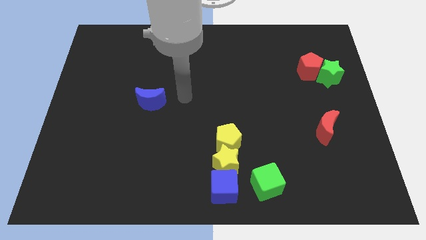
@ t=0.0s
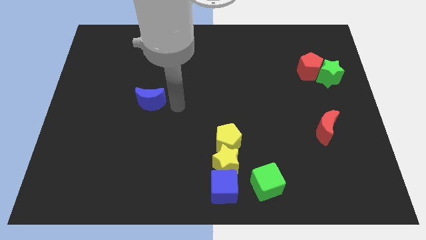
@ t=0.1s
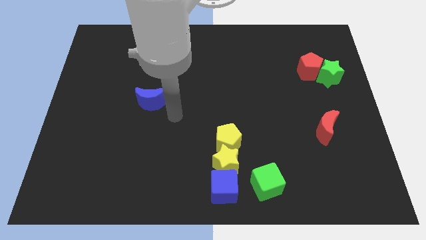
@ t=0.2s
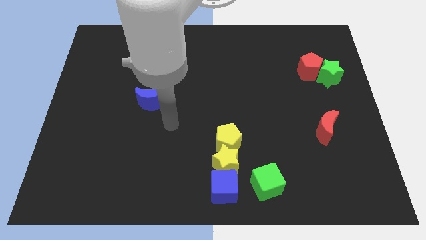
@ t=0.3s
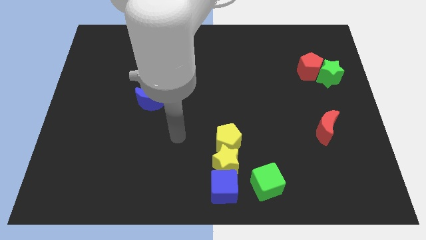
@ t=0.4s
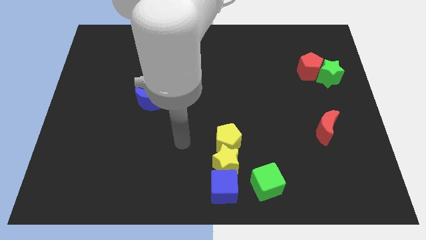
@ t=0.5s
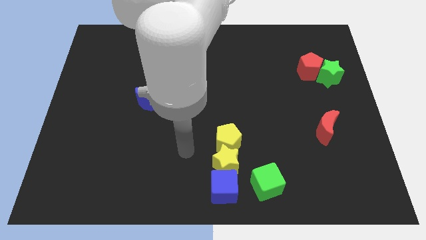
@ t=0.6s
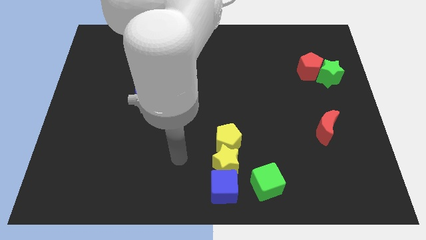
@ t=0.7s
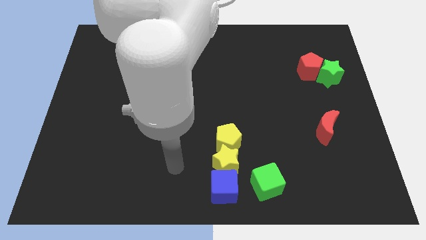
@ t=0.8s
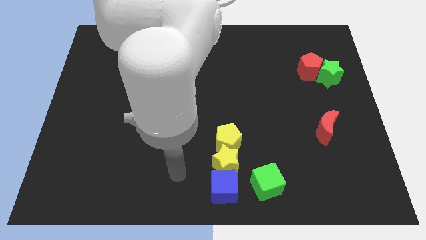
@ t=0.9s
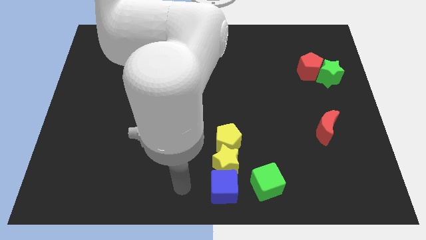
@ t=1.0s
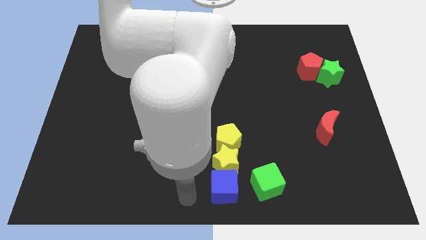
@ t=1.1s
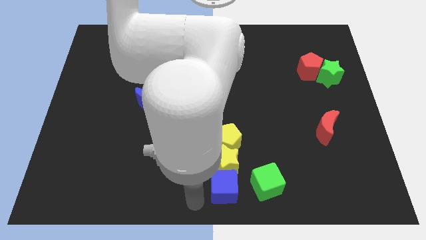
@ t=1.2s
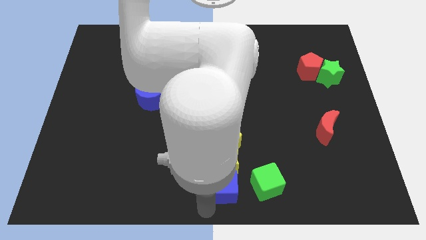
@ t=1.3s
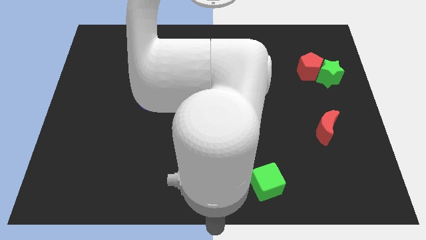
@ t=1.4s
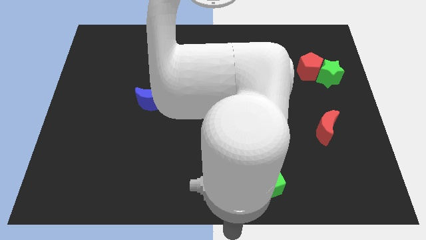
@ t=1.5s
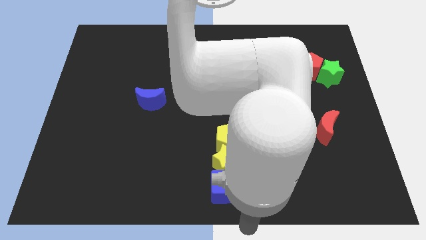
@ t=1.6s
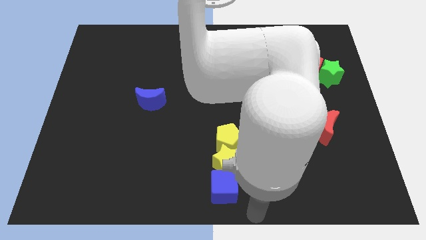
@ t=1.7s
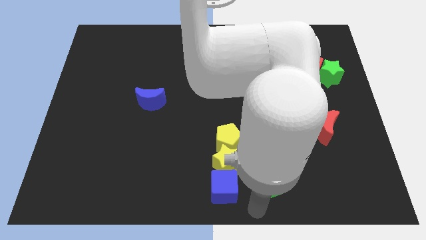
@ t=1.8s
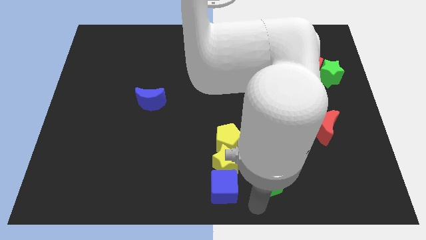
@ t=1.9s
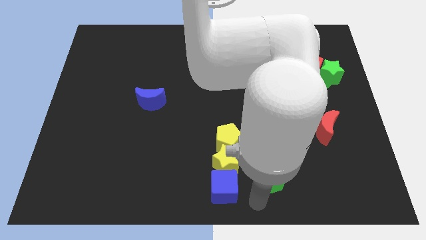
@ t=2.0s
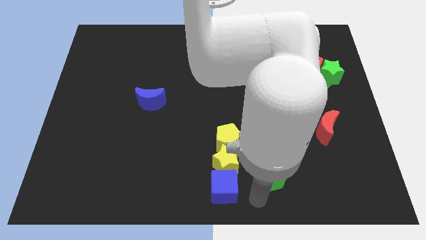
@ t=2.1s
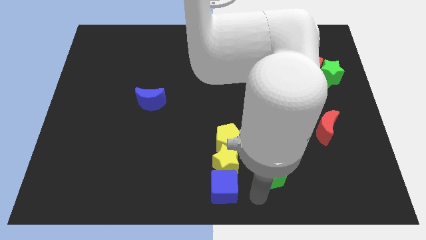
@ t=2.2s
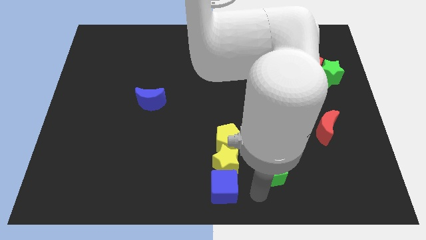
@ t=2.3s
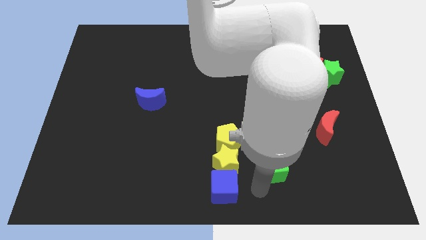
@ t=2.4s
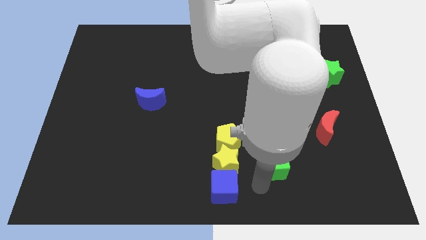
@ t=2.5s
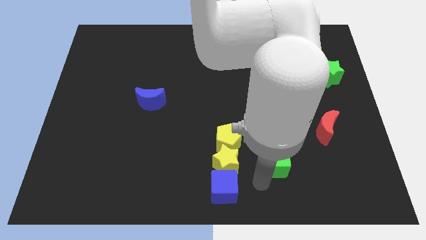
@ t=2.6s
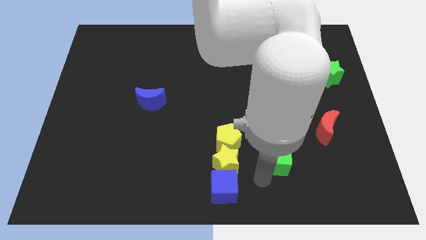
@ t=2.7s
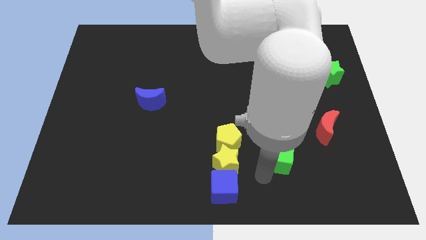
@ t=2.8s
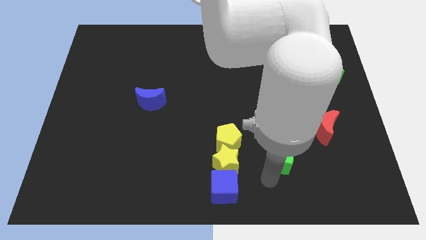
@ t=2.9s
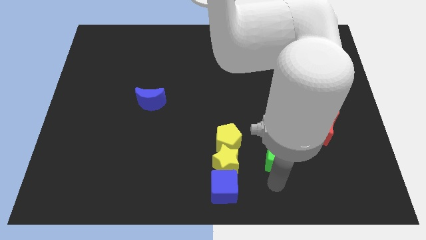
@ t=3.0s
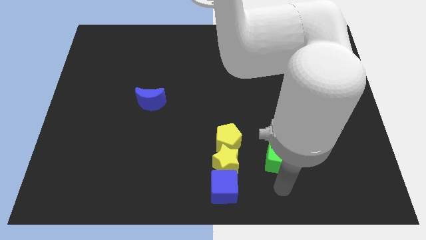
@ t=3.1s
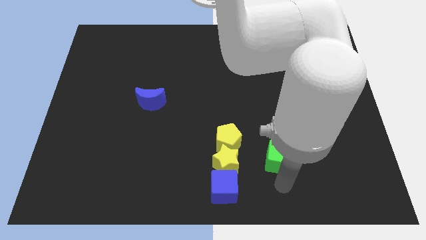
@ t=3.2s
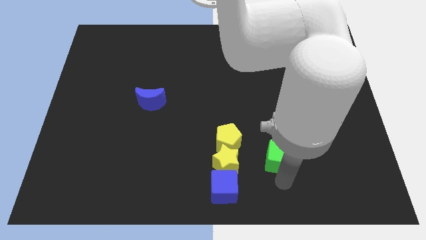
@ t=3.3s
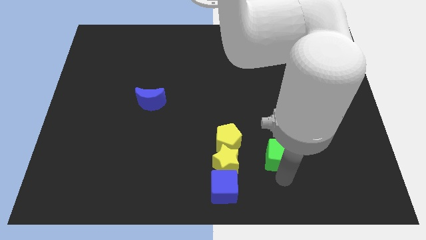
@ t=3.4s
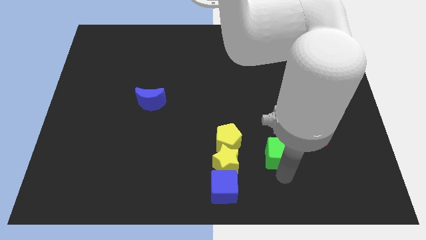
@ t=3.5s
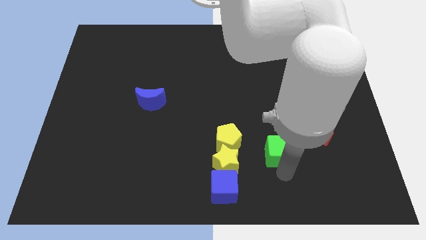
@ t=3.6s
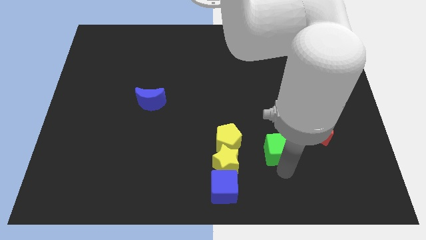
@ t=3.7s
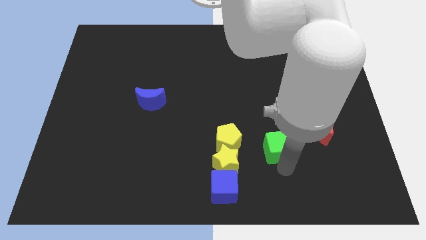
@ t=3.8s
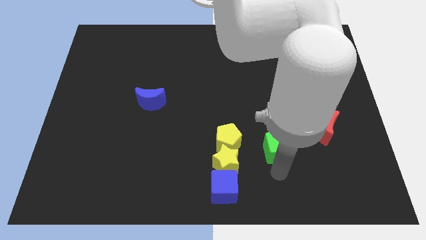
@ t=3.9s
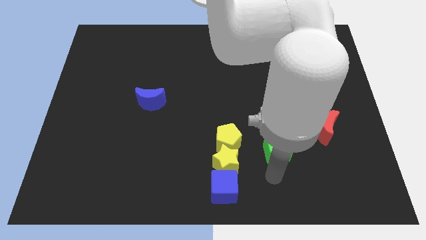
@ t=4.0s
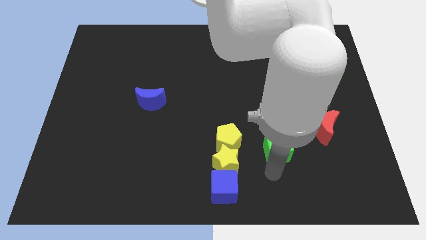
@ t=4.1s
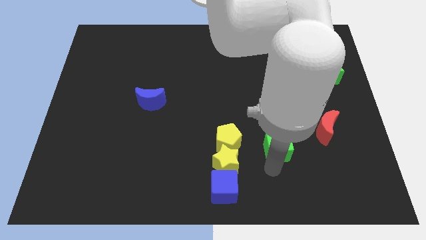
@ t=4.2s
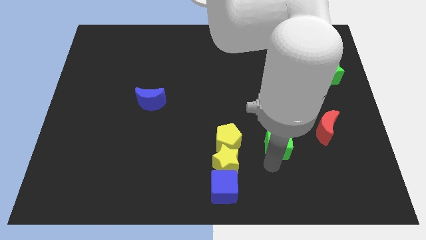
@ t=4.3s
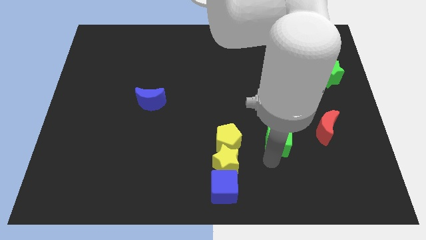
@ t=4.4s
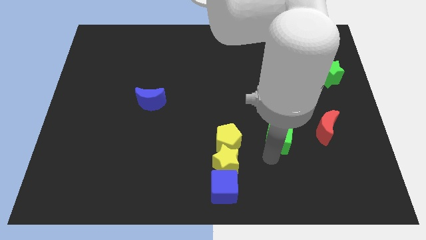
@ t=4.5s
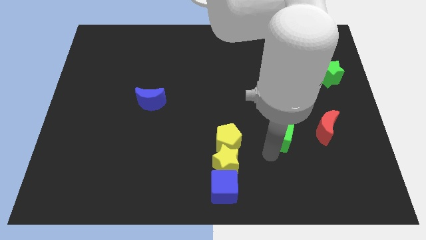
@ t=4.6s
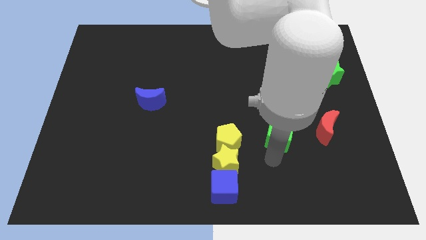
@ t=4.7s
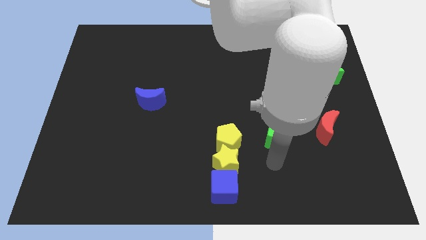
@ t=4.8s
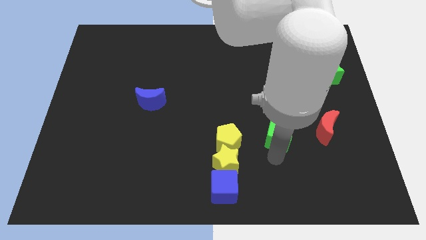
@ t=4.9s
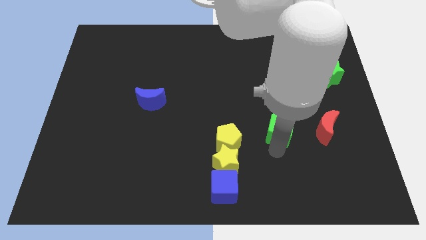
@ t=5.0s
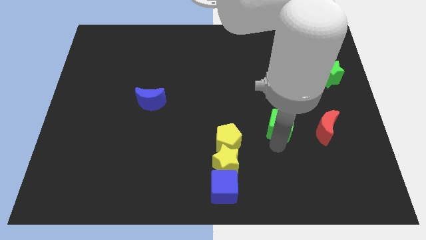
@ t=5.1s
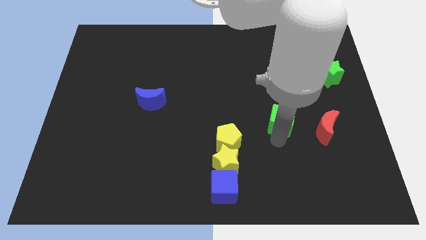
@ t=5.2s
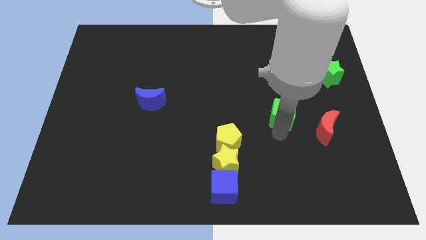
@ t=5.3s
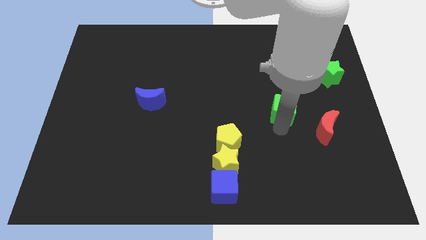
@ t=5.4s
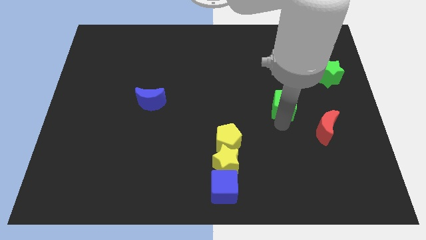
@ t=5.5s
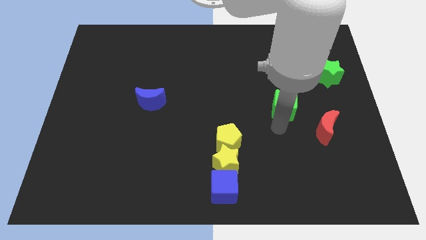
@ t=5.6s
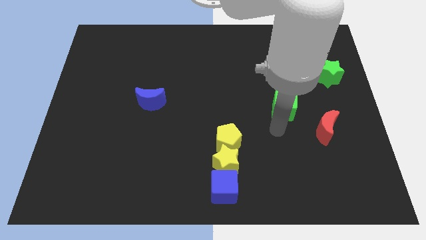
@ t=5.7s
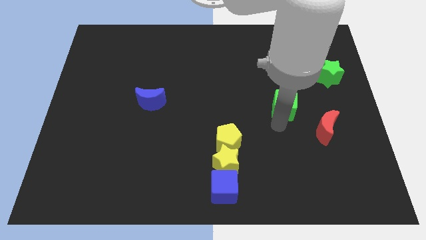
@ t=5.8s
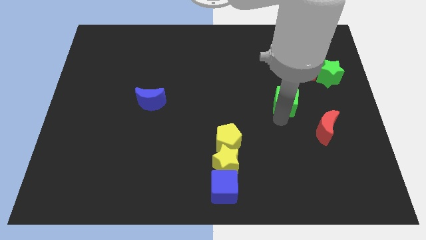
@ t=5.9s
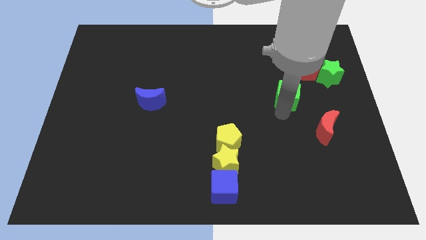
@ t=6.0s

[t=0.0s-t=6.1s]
put the green cube diagonally down and to the left of the red pentagon

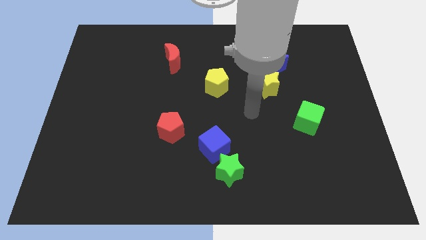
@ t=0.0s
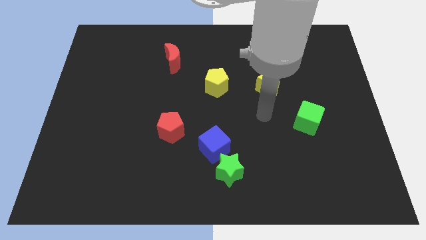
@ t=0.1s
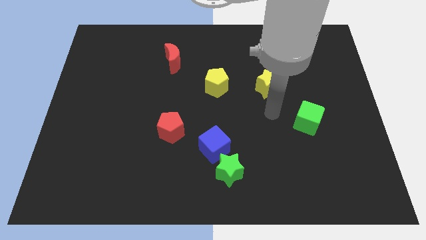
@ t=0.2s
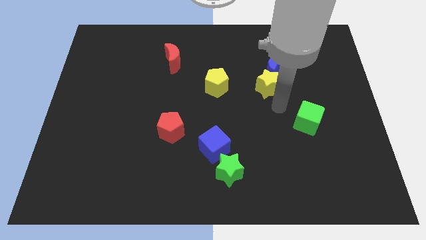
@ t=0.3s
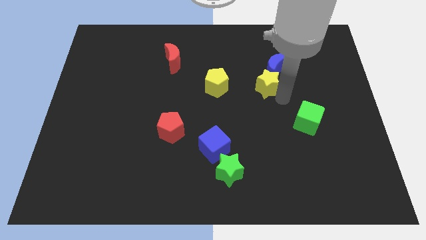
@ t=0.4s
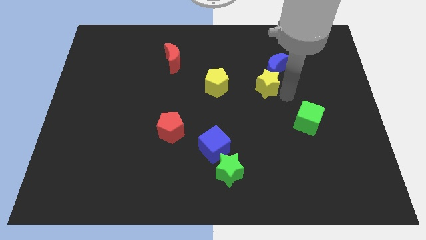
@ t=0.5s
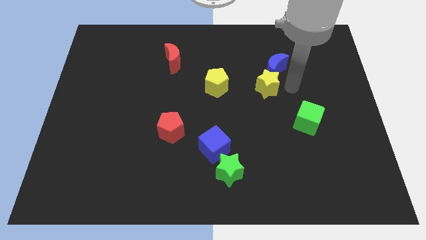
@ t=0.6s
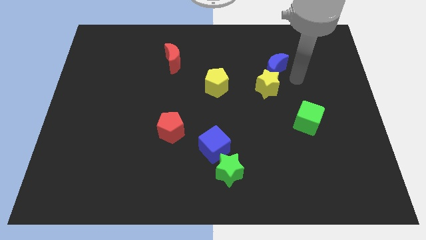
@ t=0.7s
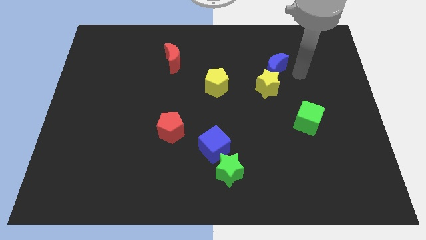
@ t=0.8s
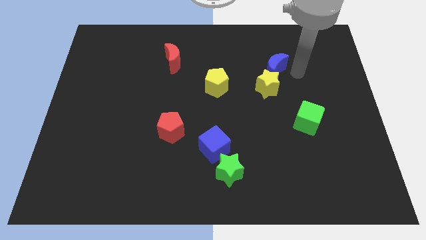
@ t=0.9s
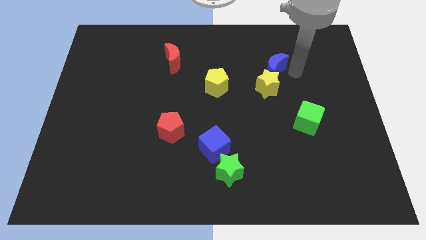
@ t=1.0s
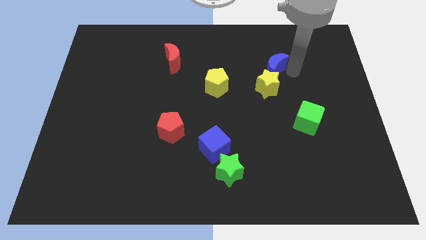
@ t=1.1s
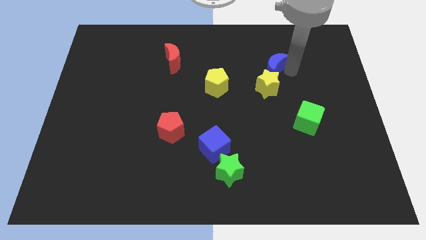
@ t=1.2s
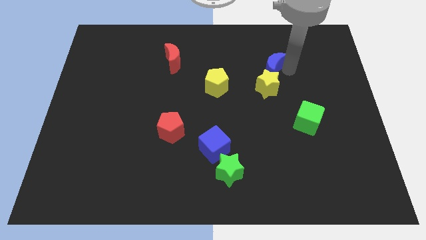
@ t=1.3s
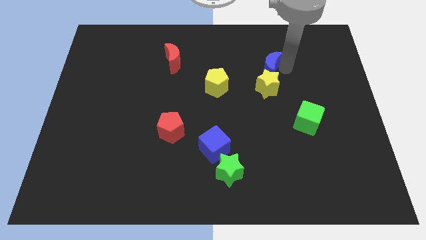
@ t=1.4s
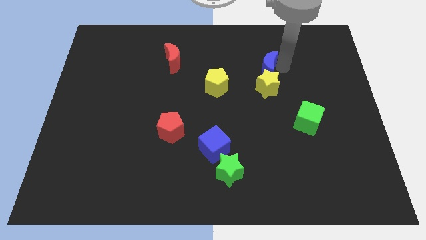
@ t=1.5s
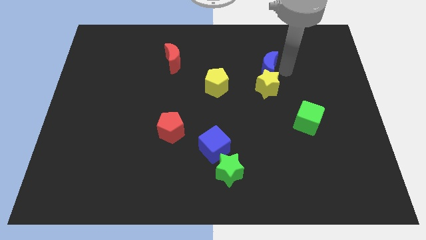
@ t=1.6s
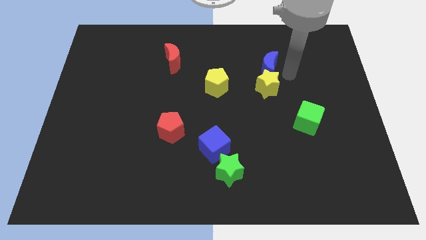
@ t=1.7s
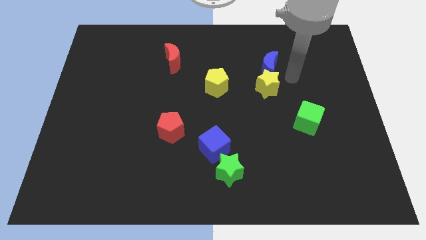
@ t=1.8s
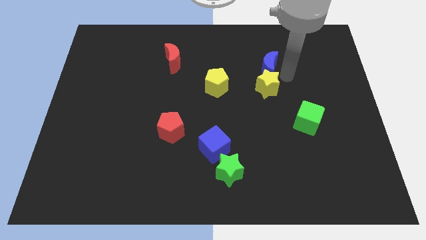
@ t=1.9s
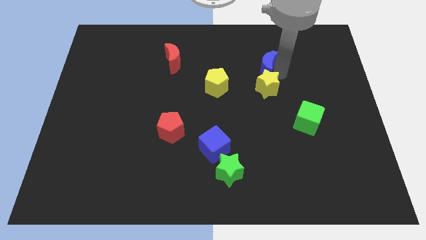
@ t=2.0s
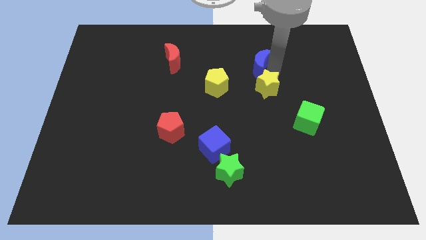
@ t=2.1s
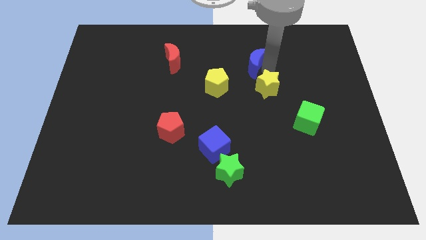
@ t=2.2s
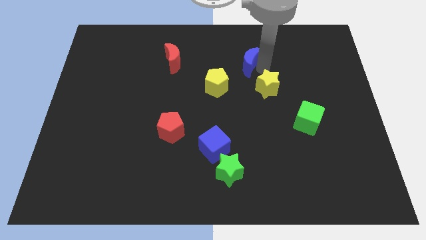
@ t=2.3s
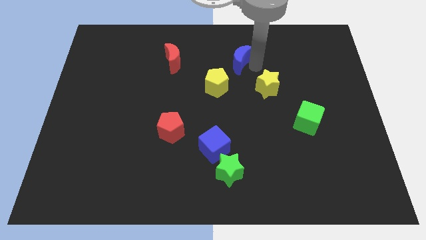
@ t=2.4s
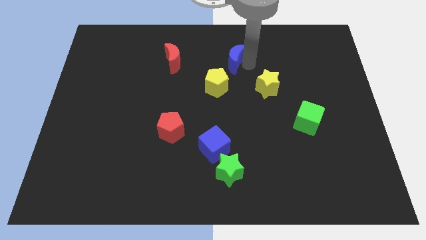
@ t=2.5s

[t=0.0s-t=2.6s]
move the blue moon above the yellow pentagon
